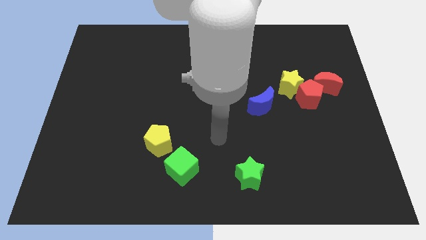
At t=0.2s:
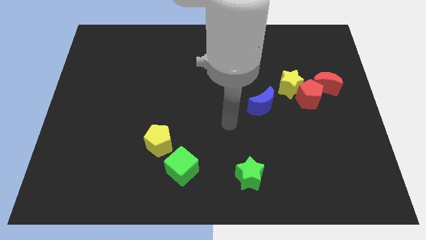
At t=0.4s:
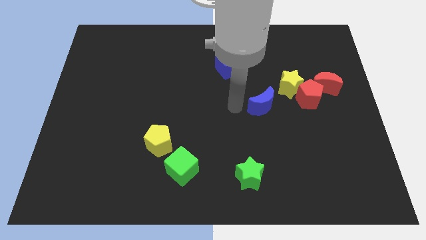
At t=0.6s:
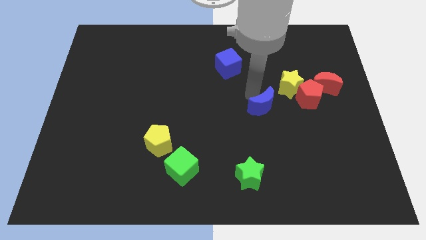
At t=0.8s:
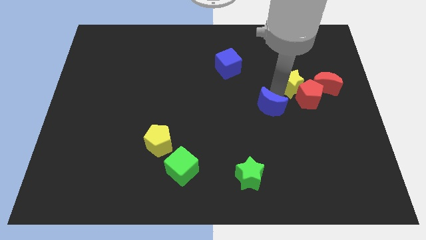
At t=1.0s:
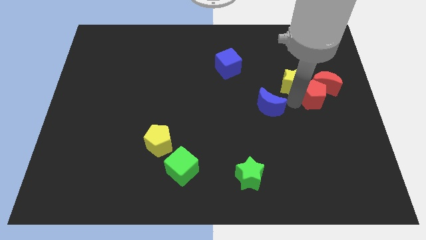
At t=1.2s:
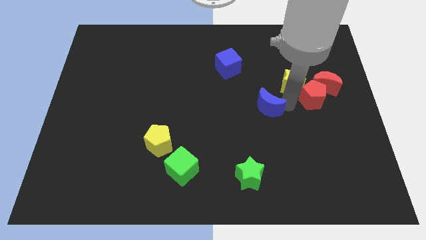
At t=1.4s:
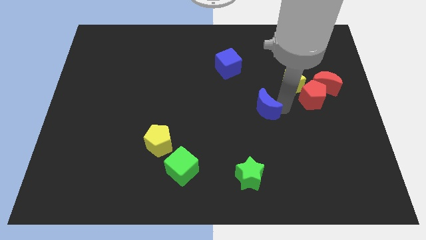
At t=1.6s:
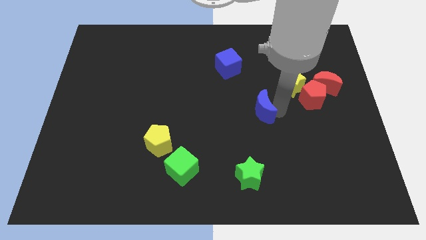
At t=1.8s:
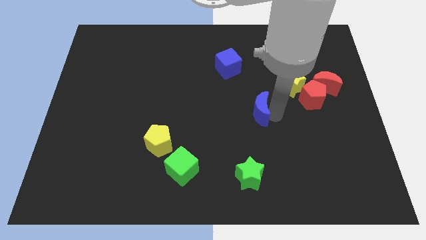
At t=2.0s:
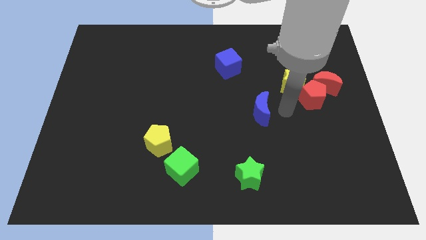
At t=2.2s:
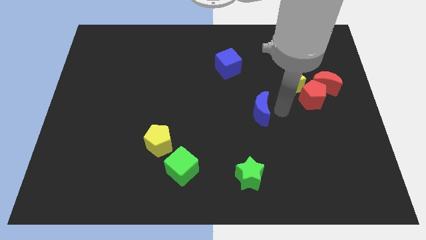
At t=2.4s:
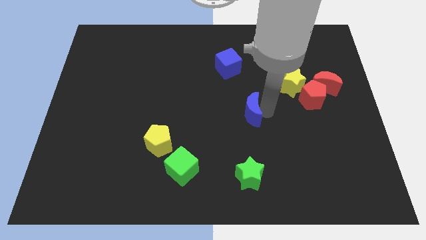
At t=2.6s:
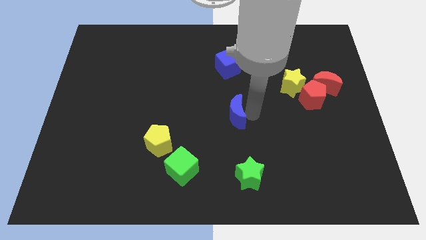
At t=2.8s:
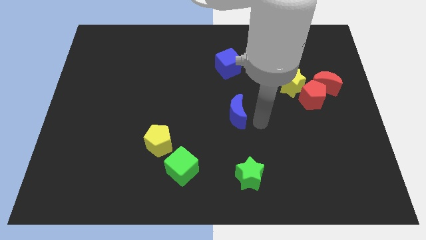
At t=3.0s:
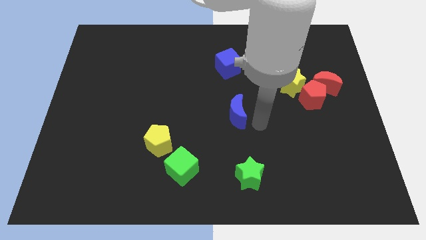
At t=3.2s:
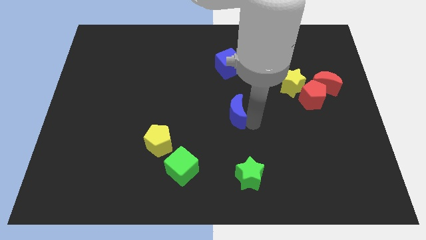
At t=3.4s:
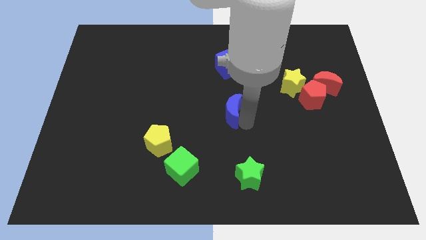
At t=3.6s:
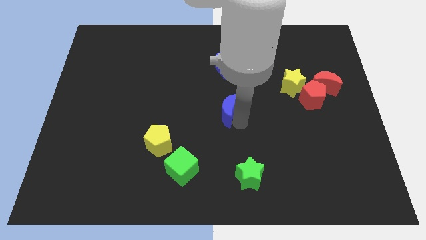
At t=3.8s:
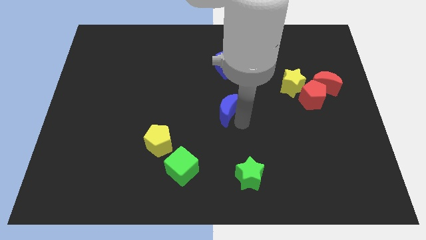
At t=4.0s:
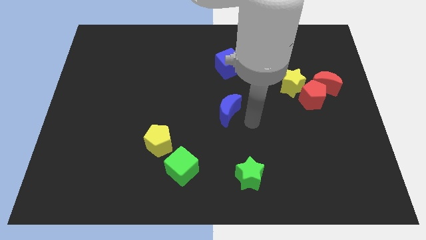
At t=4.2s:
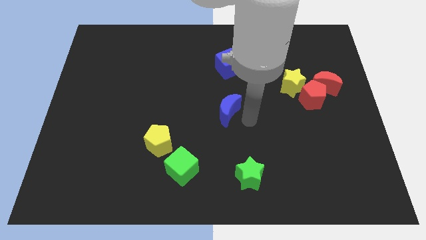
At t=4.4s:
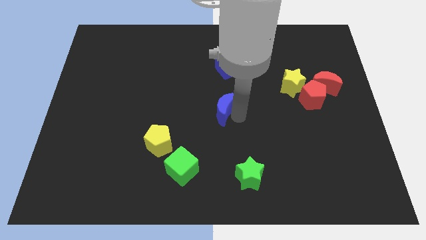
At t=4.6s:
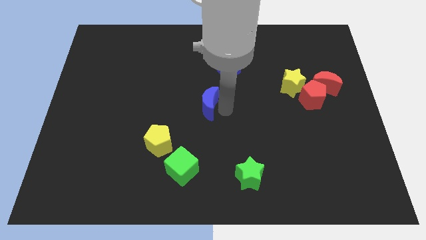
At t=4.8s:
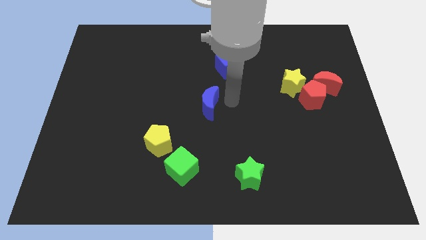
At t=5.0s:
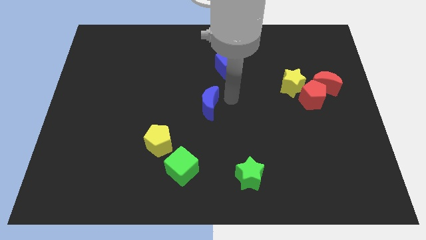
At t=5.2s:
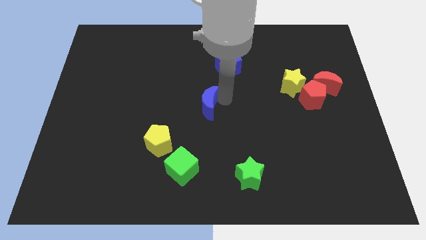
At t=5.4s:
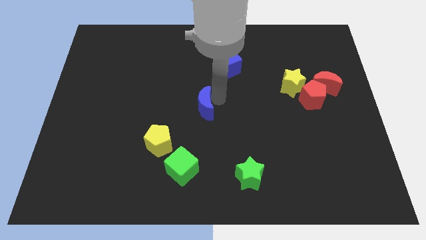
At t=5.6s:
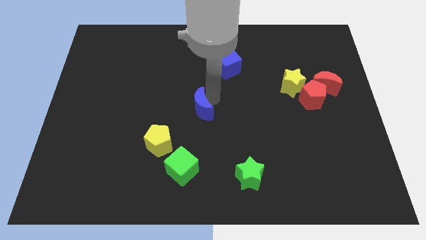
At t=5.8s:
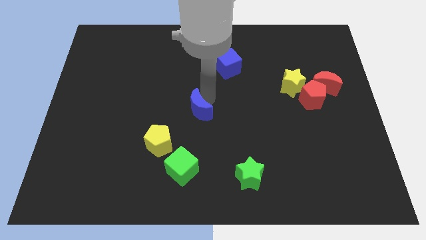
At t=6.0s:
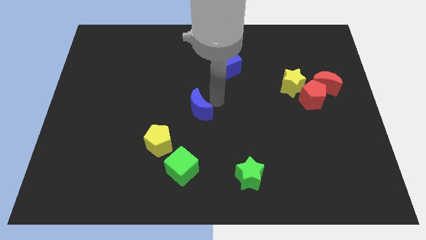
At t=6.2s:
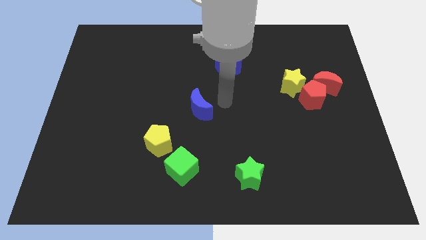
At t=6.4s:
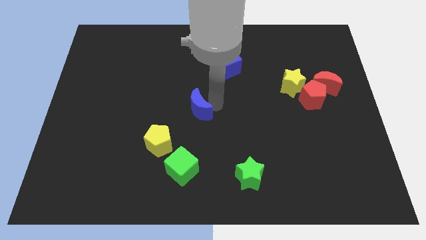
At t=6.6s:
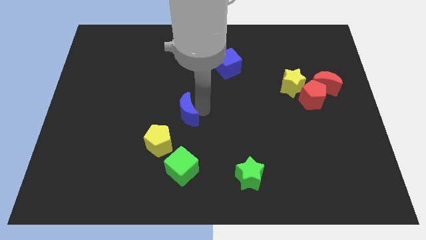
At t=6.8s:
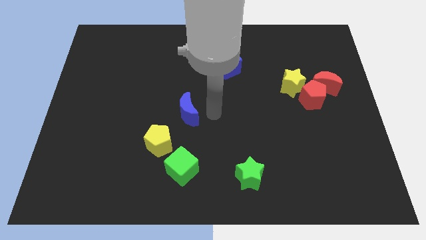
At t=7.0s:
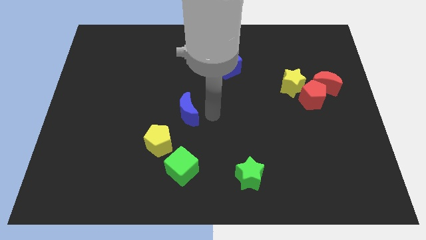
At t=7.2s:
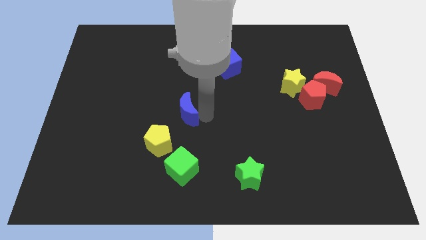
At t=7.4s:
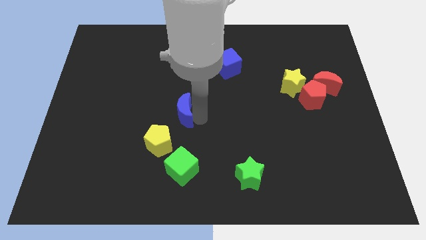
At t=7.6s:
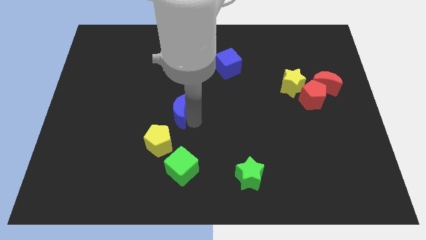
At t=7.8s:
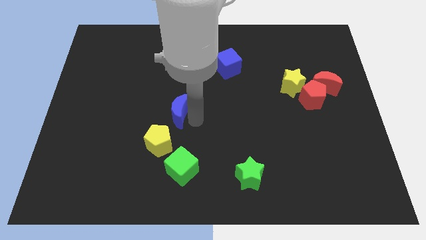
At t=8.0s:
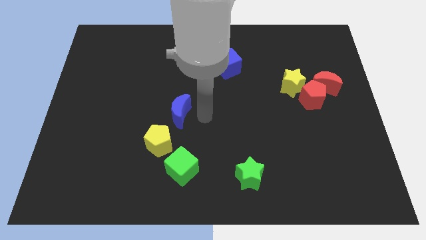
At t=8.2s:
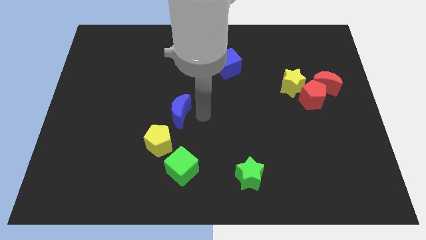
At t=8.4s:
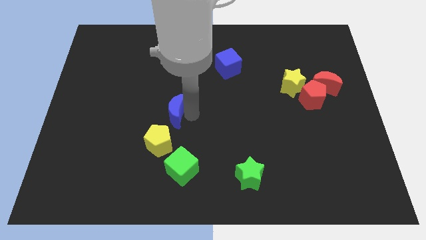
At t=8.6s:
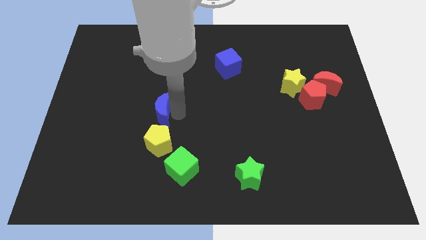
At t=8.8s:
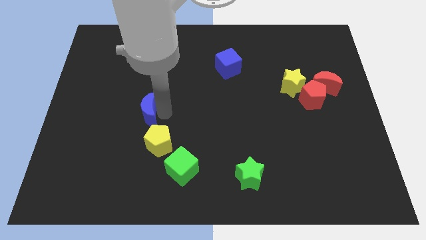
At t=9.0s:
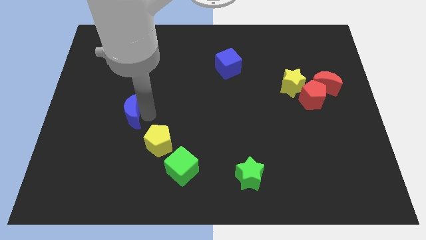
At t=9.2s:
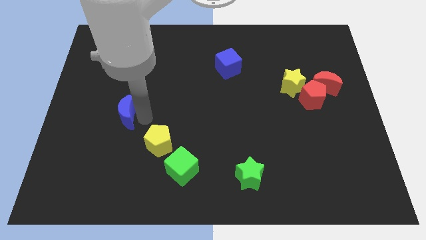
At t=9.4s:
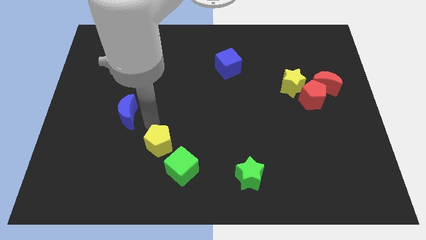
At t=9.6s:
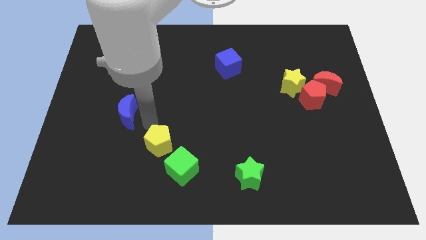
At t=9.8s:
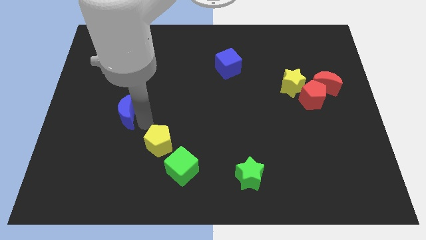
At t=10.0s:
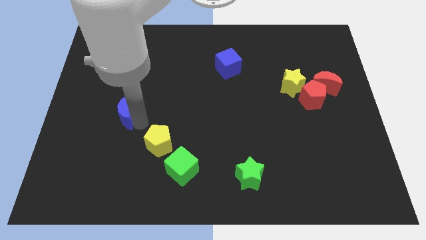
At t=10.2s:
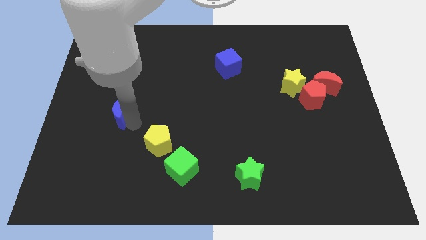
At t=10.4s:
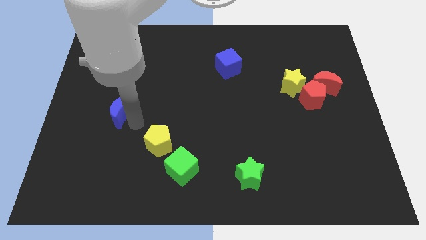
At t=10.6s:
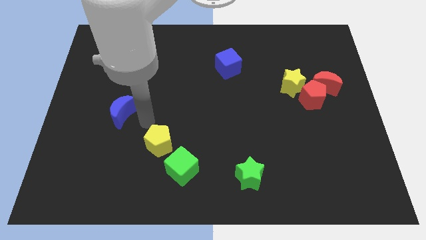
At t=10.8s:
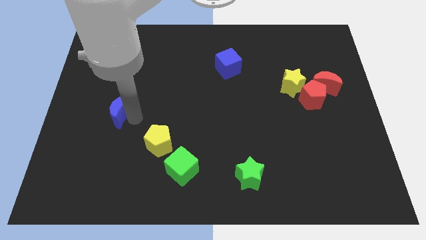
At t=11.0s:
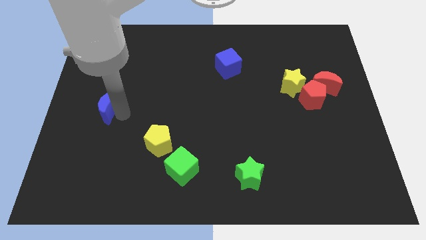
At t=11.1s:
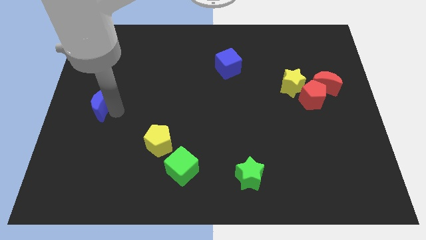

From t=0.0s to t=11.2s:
push the blue moon to the center left
